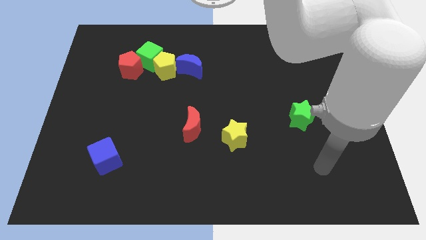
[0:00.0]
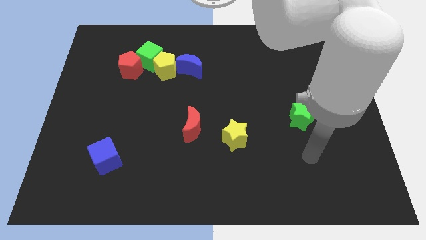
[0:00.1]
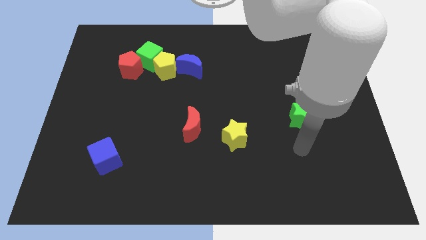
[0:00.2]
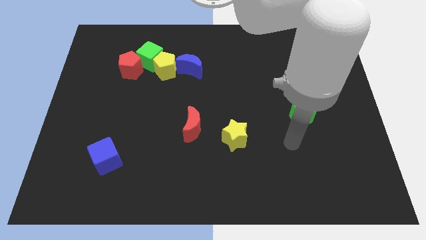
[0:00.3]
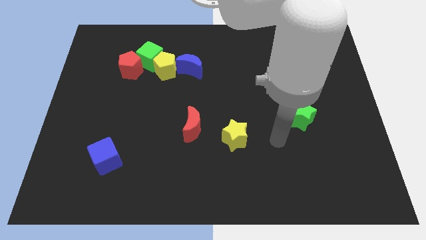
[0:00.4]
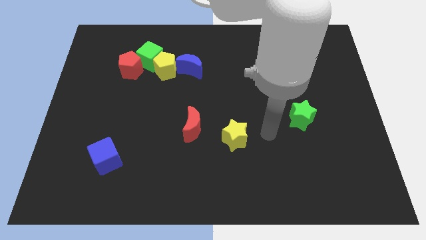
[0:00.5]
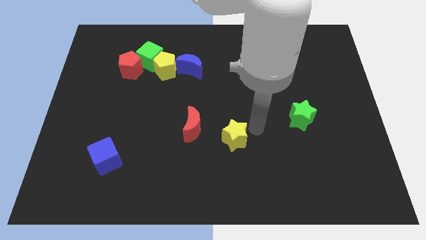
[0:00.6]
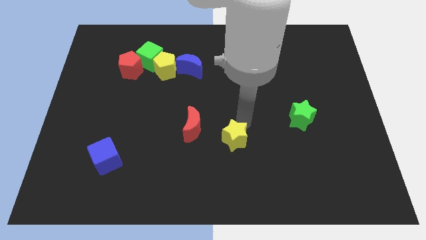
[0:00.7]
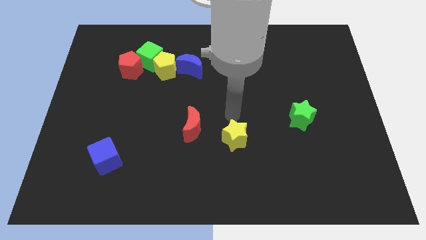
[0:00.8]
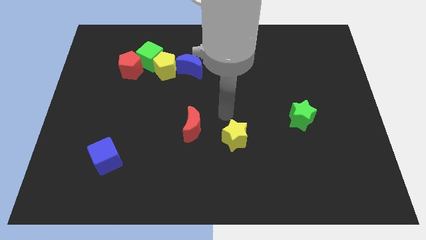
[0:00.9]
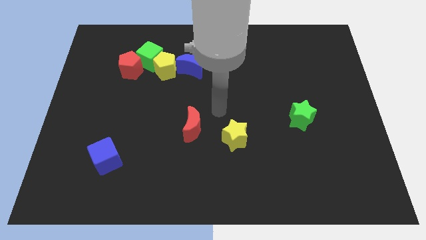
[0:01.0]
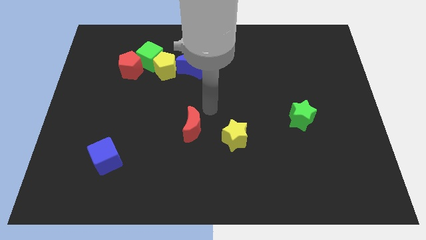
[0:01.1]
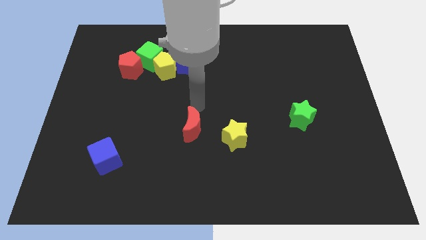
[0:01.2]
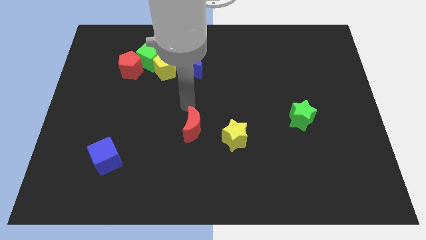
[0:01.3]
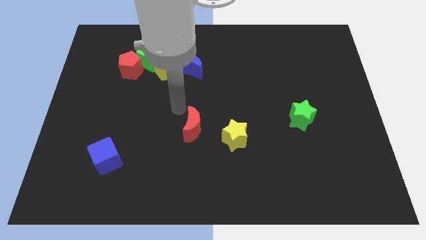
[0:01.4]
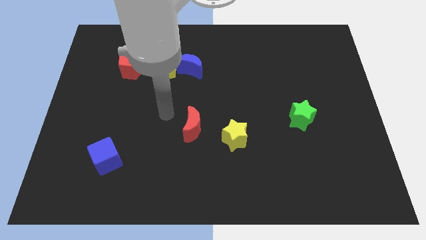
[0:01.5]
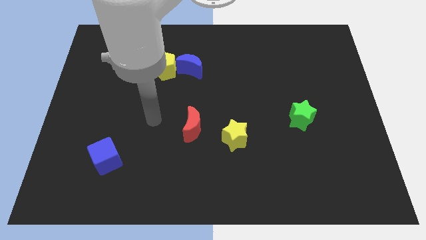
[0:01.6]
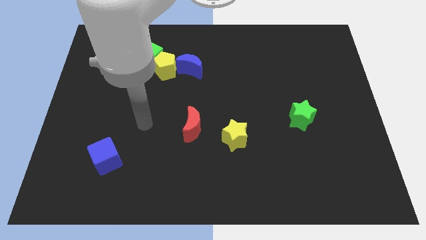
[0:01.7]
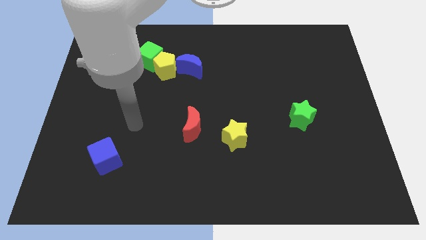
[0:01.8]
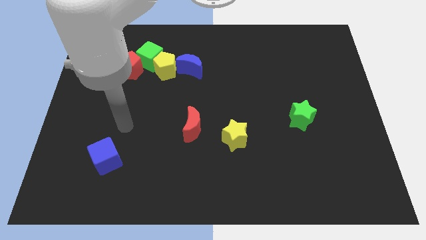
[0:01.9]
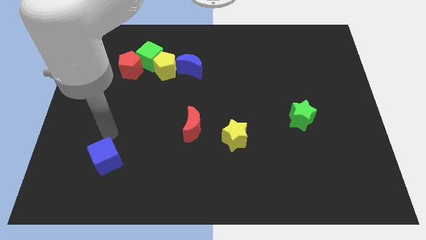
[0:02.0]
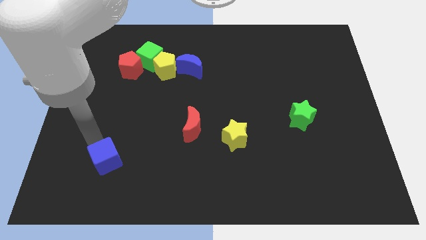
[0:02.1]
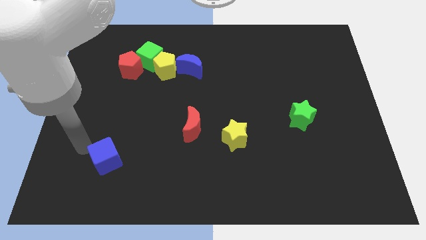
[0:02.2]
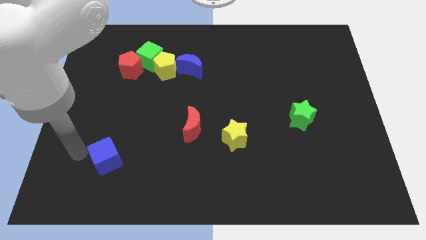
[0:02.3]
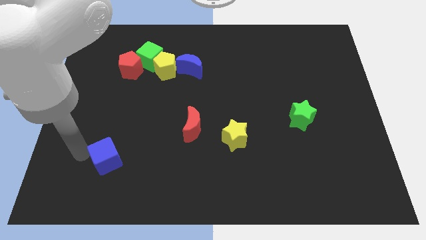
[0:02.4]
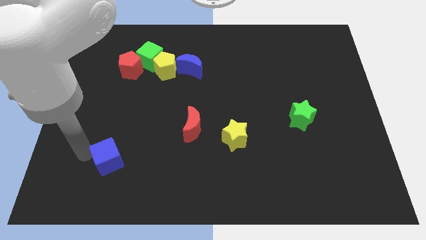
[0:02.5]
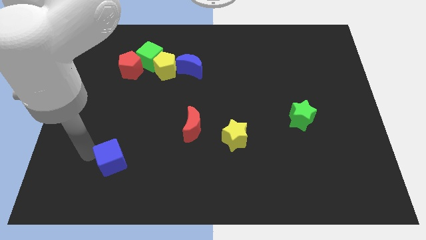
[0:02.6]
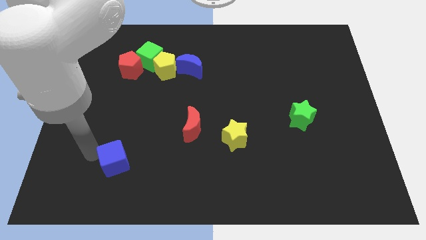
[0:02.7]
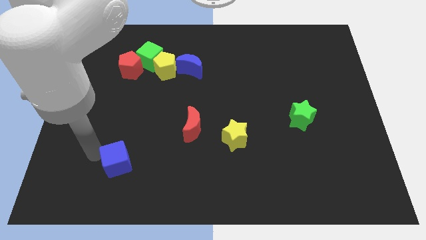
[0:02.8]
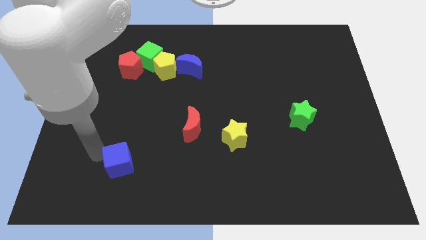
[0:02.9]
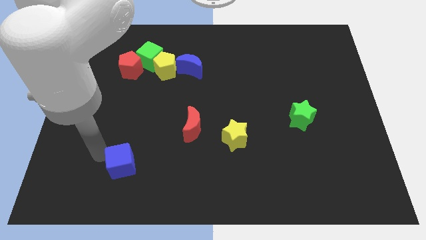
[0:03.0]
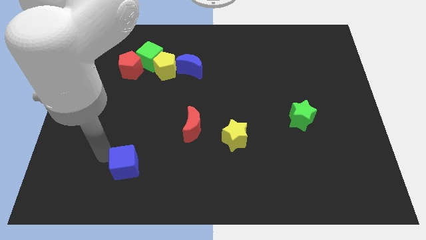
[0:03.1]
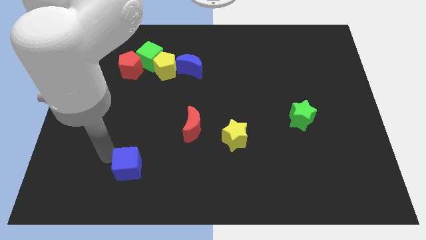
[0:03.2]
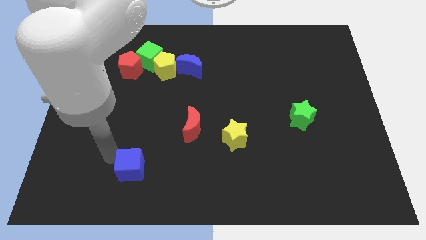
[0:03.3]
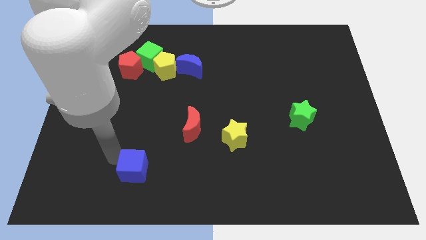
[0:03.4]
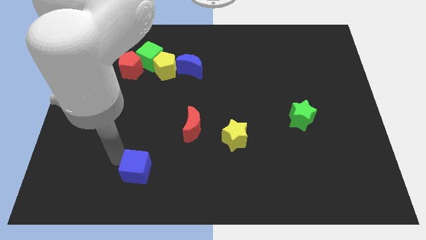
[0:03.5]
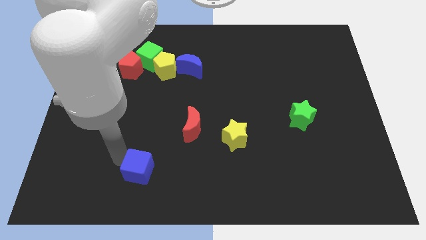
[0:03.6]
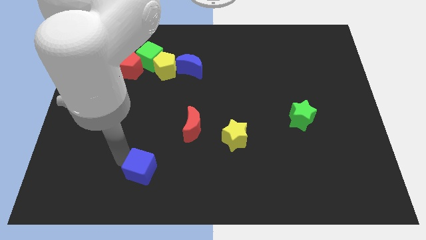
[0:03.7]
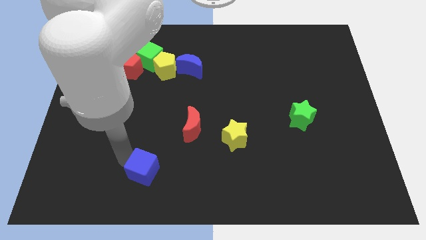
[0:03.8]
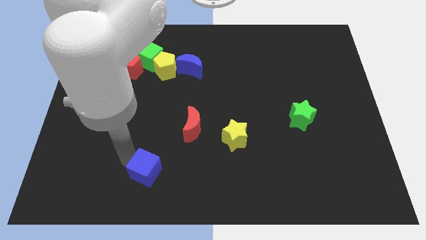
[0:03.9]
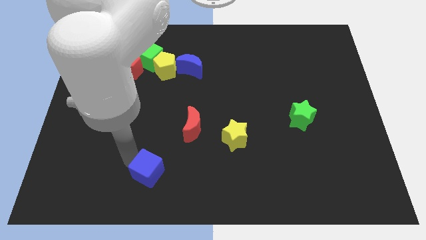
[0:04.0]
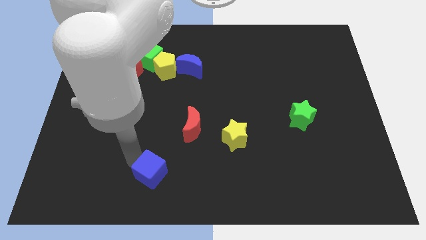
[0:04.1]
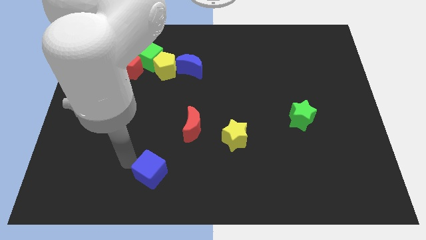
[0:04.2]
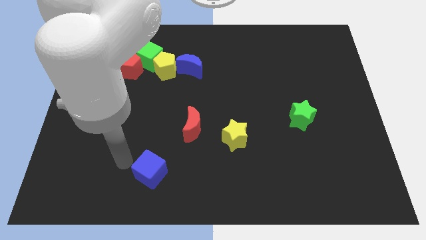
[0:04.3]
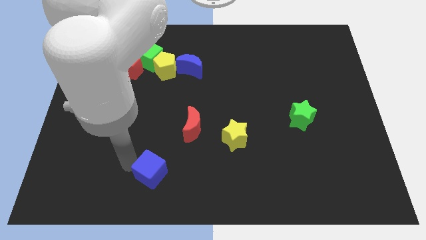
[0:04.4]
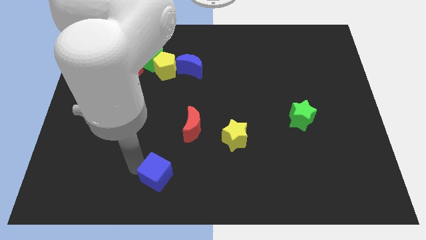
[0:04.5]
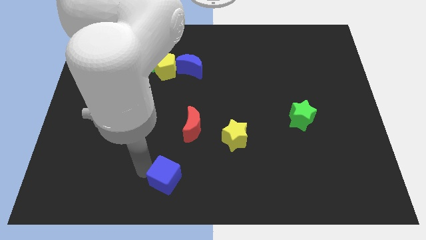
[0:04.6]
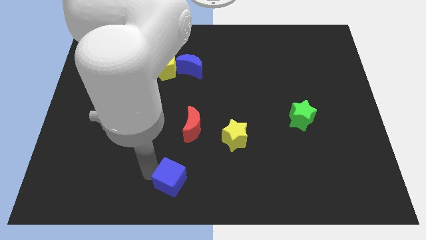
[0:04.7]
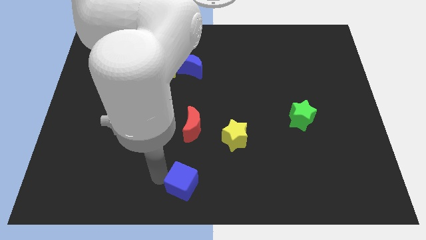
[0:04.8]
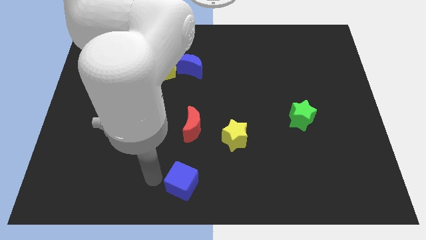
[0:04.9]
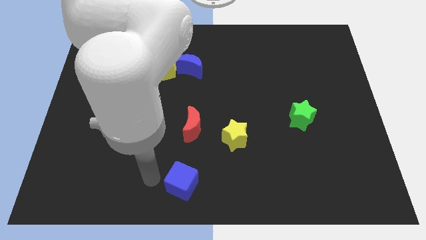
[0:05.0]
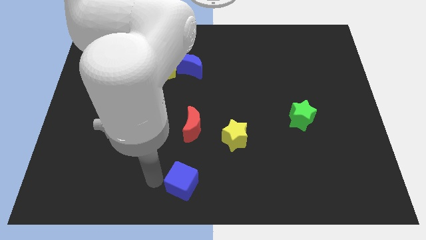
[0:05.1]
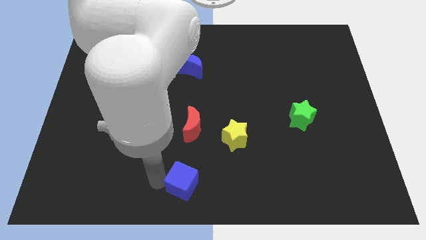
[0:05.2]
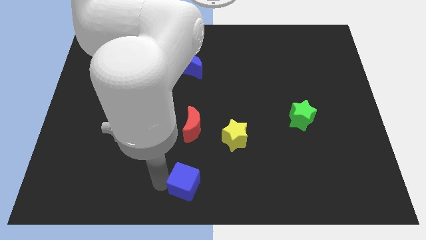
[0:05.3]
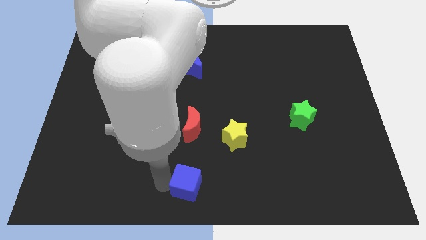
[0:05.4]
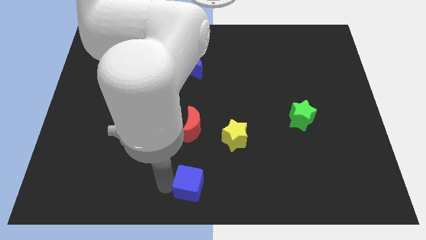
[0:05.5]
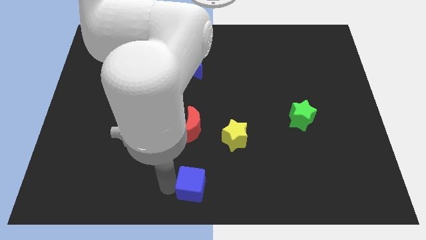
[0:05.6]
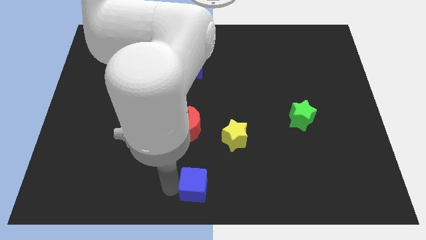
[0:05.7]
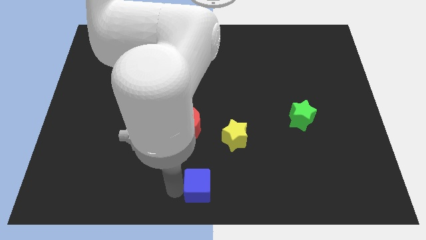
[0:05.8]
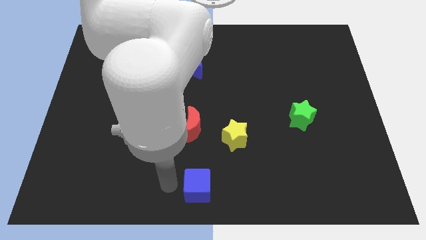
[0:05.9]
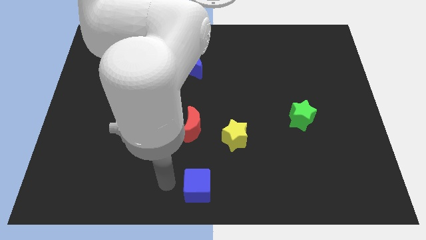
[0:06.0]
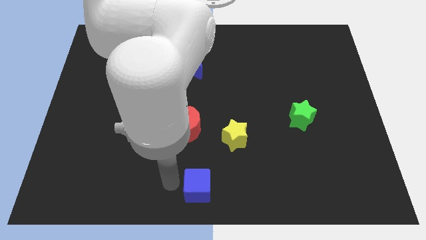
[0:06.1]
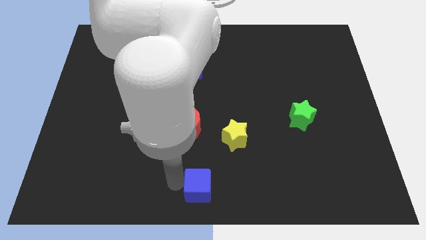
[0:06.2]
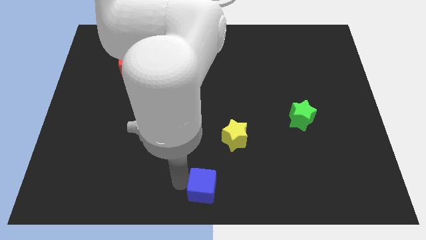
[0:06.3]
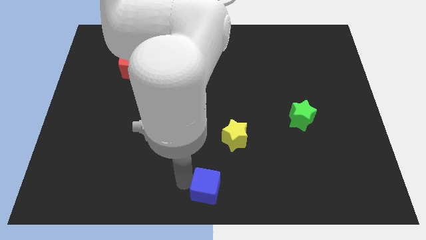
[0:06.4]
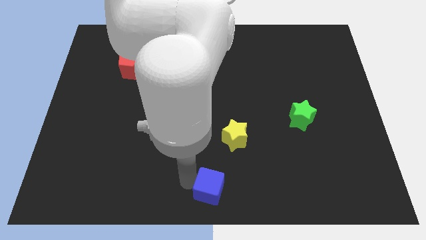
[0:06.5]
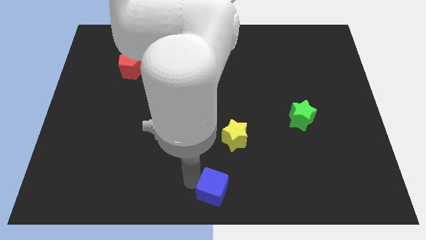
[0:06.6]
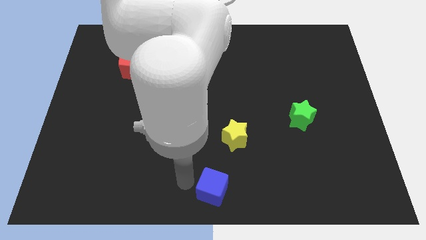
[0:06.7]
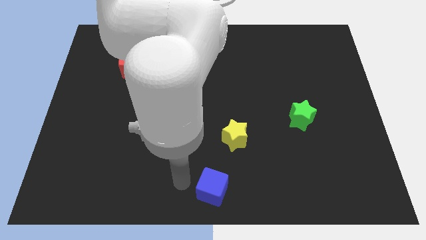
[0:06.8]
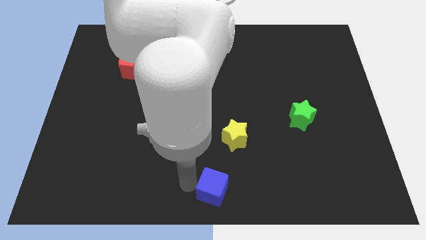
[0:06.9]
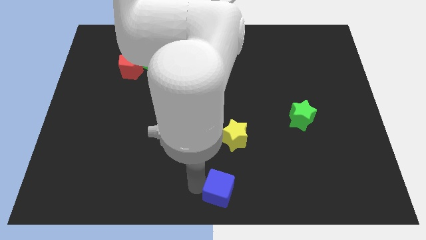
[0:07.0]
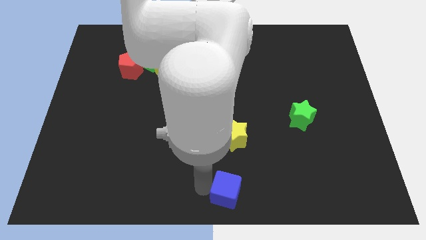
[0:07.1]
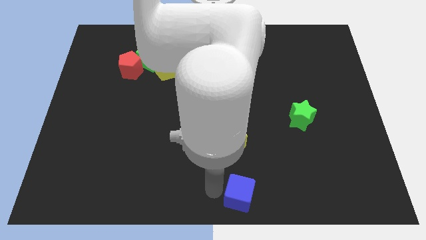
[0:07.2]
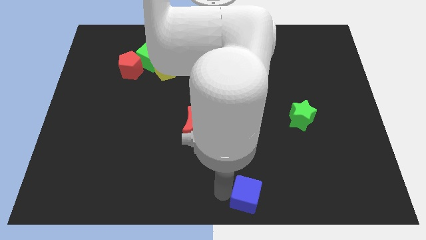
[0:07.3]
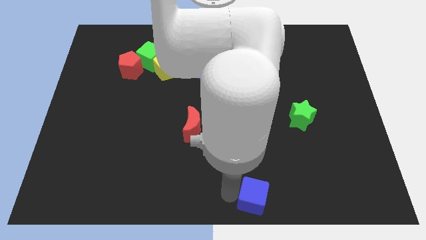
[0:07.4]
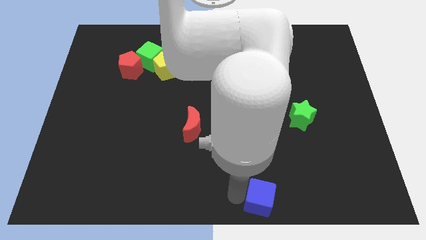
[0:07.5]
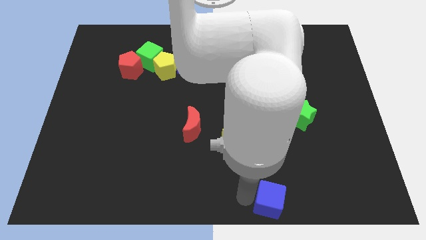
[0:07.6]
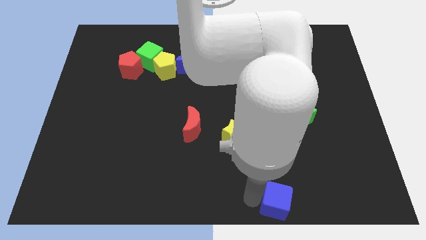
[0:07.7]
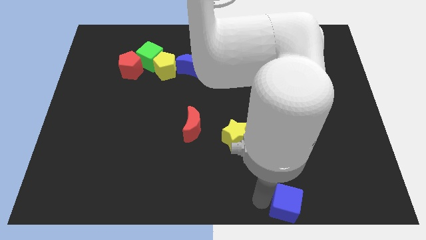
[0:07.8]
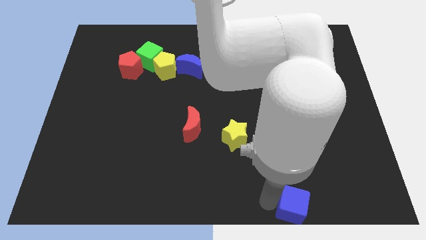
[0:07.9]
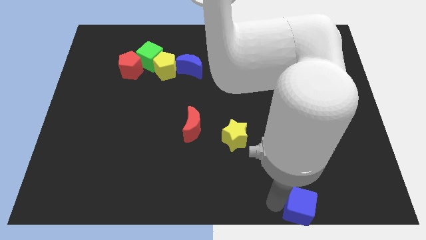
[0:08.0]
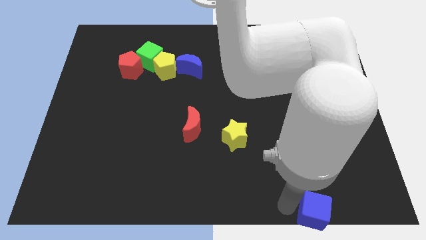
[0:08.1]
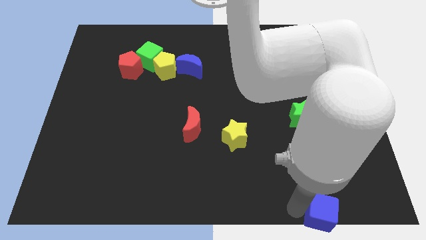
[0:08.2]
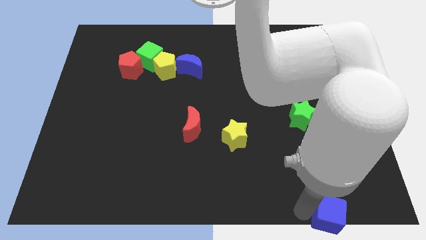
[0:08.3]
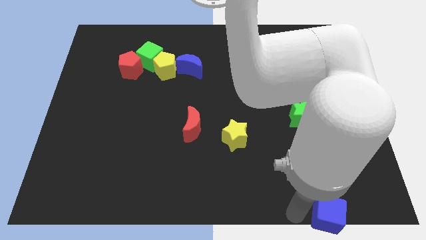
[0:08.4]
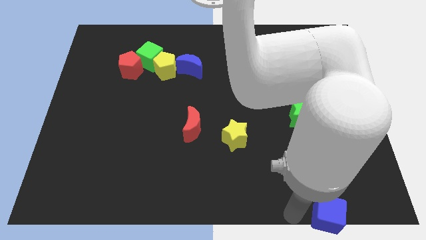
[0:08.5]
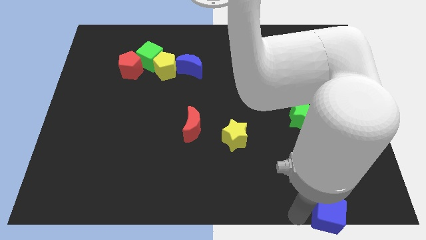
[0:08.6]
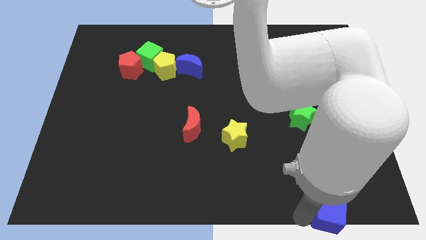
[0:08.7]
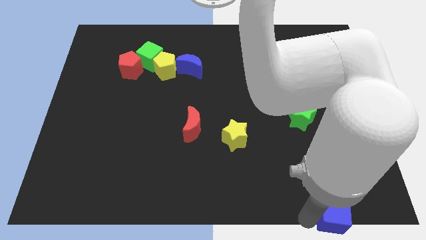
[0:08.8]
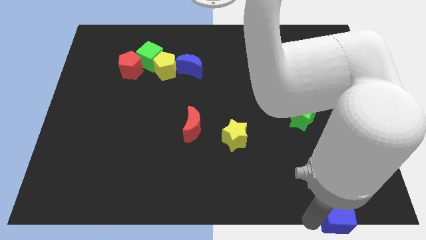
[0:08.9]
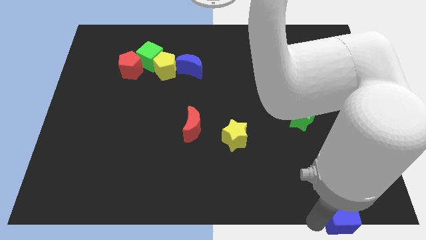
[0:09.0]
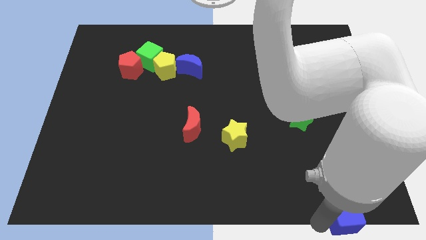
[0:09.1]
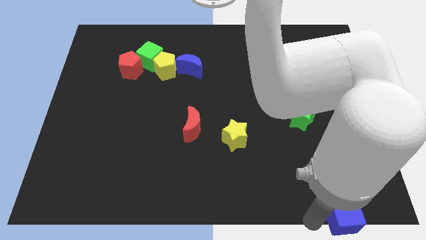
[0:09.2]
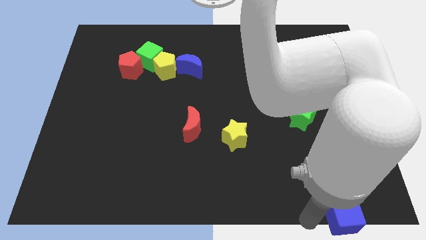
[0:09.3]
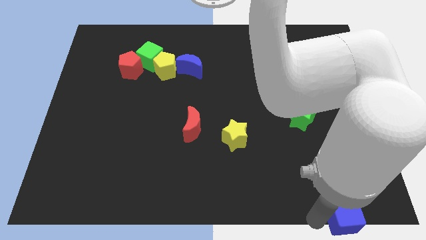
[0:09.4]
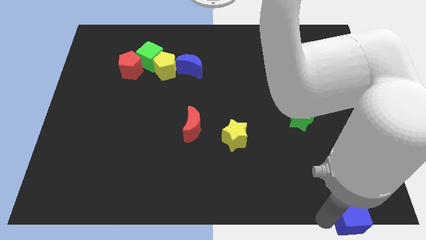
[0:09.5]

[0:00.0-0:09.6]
slide the blue cube to the bottom right of the board
